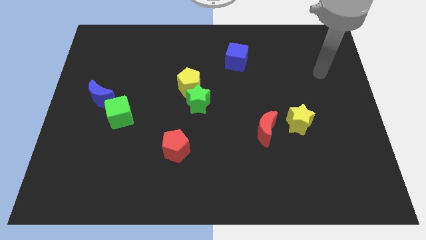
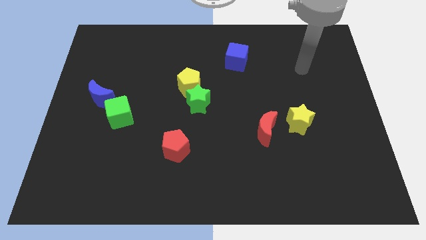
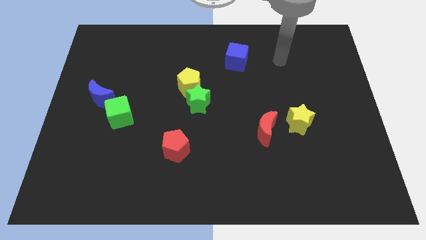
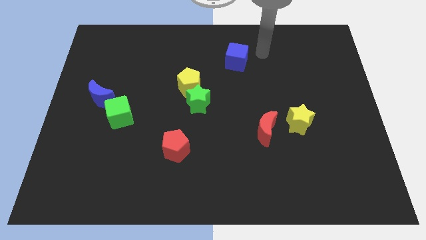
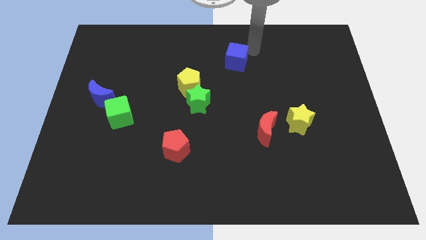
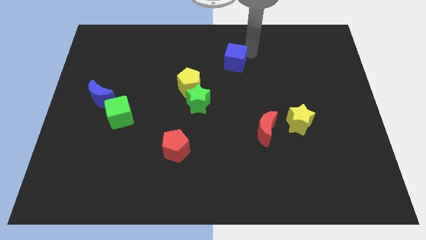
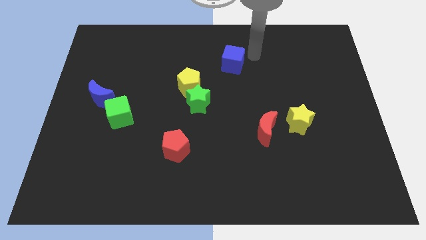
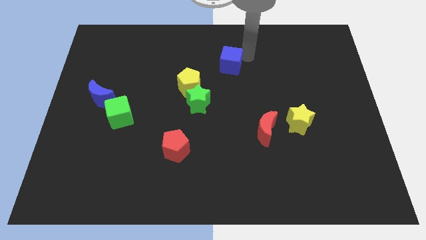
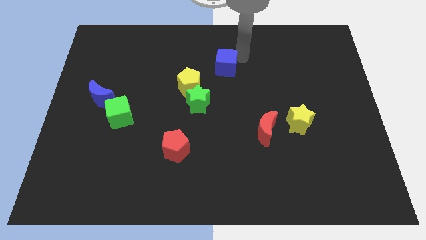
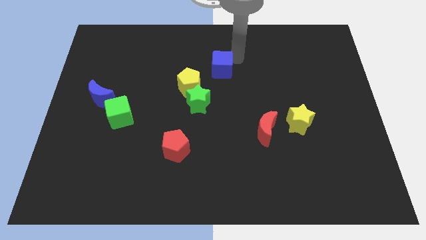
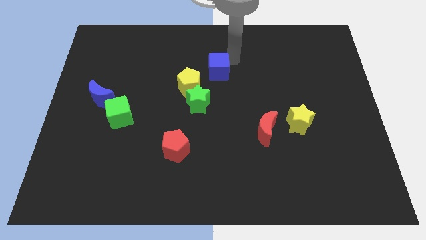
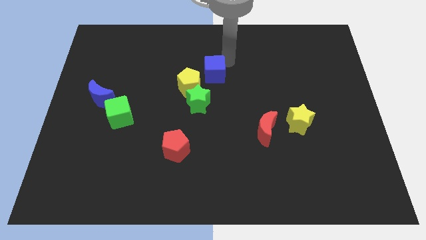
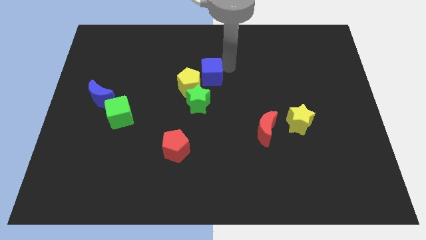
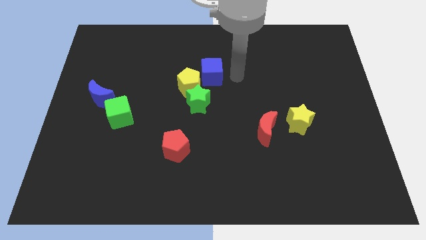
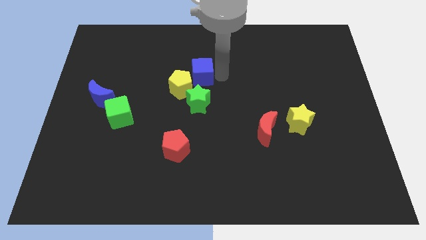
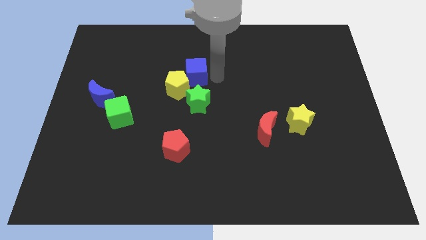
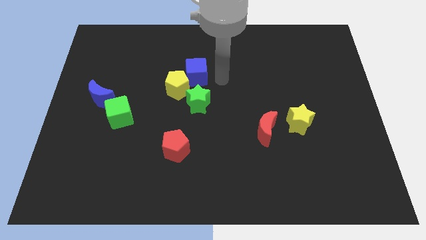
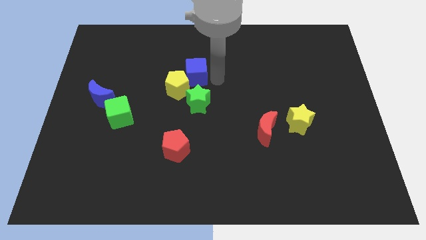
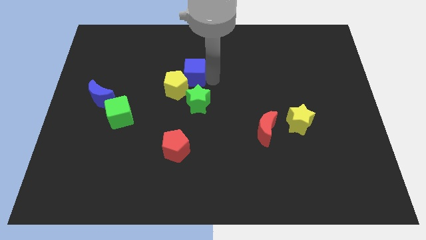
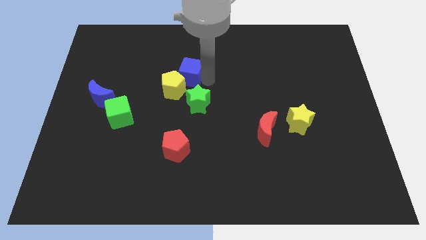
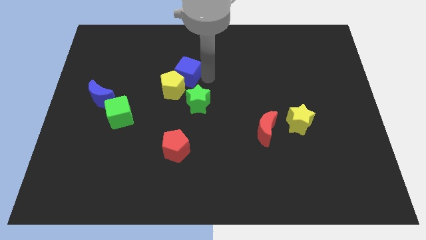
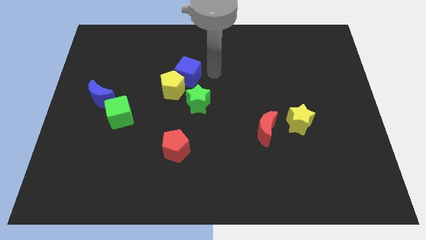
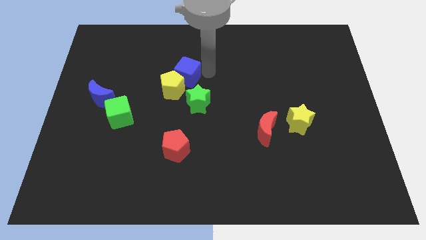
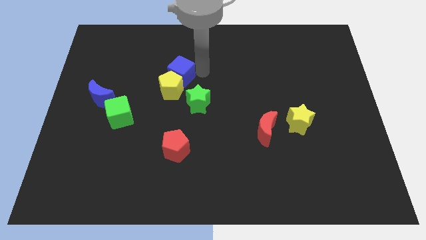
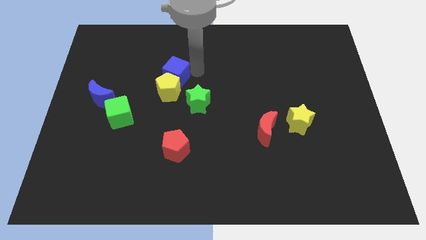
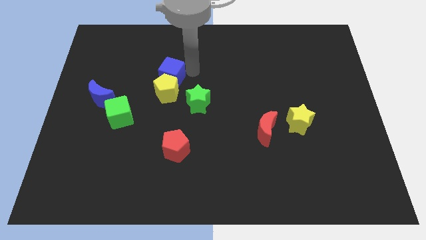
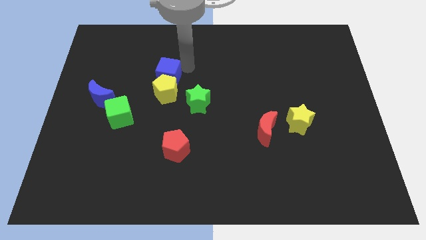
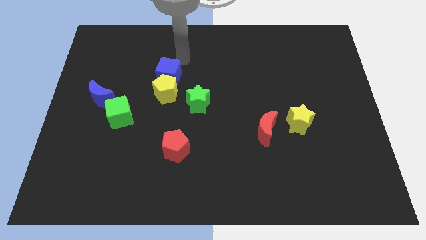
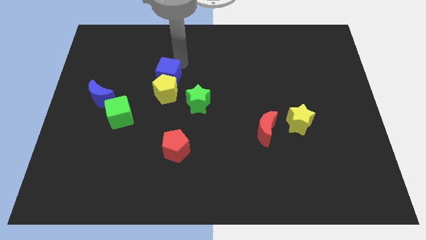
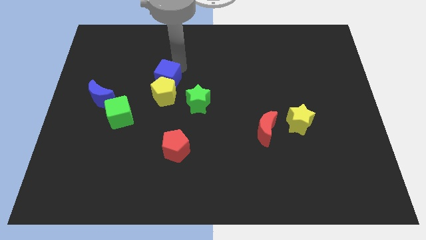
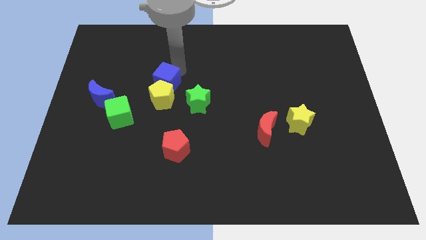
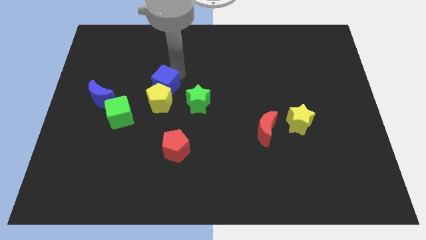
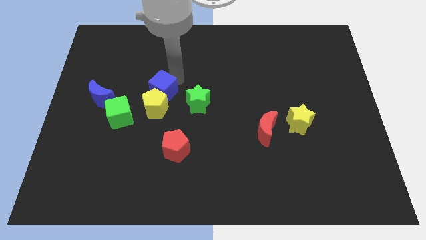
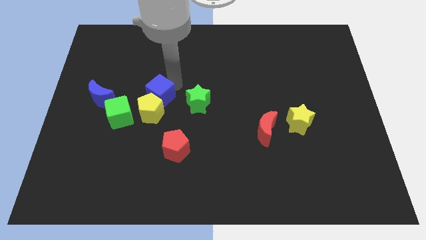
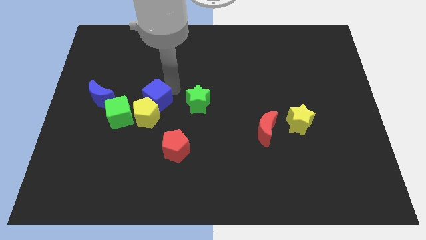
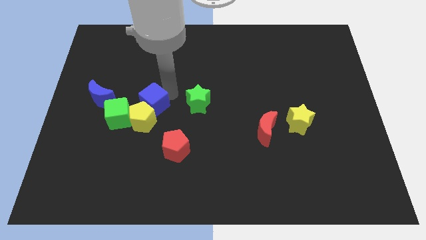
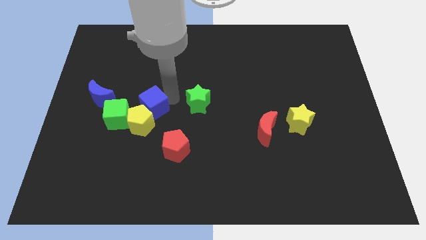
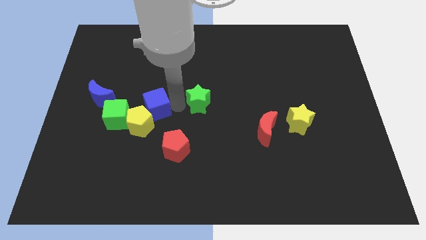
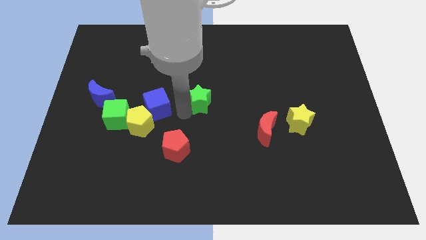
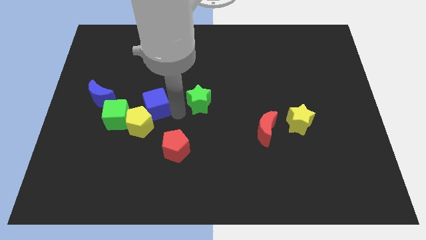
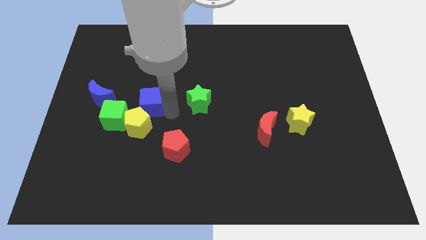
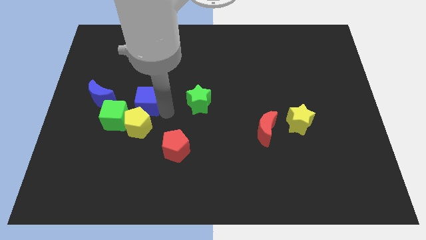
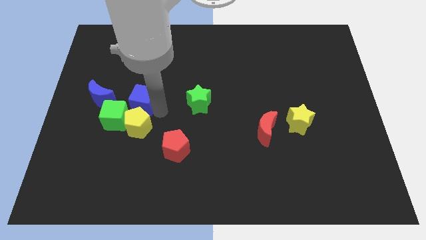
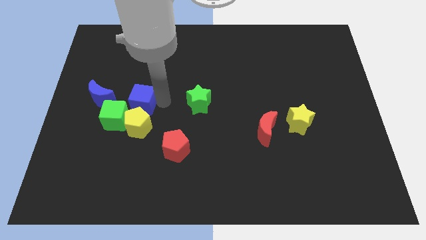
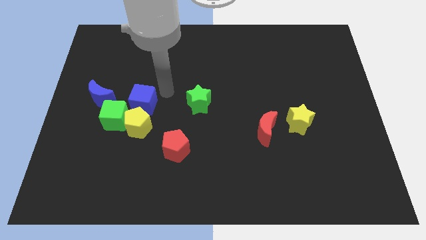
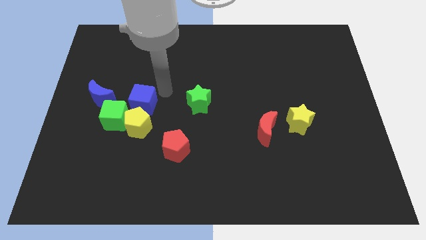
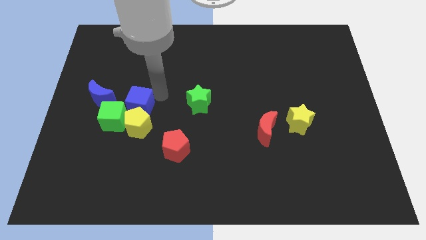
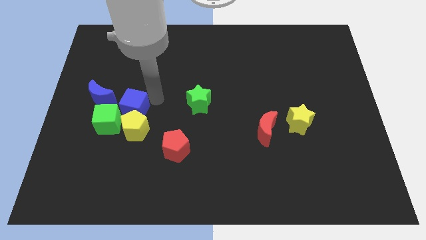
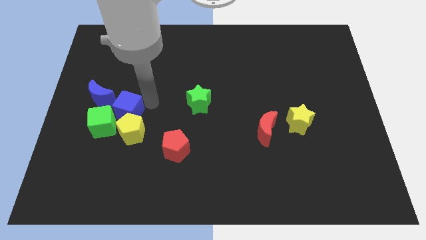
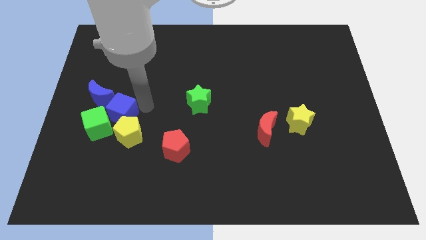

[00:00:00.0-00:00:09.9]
move the blue cube next to the green cube

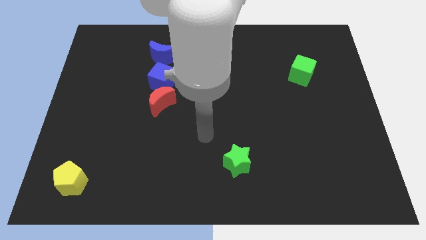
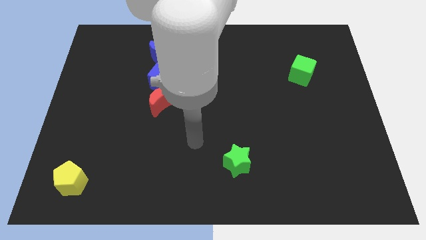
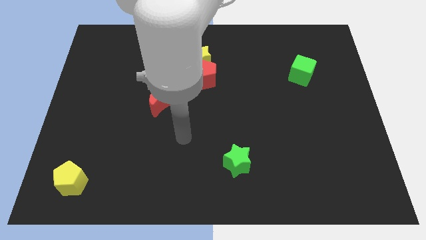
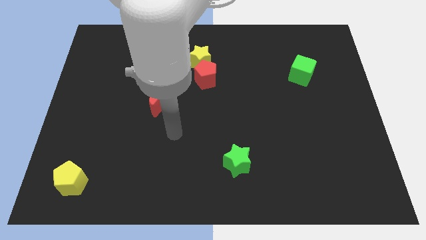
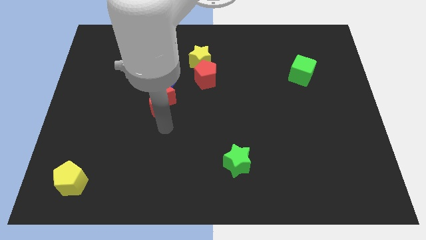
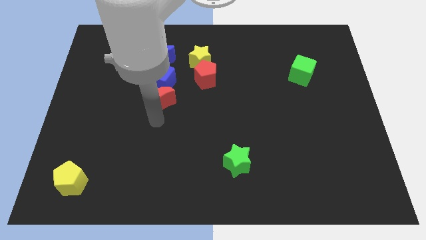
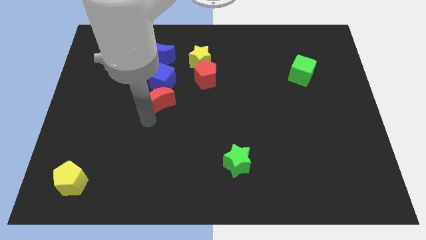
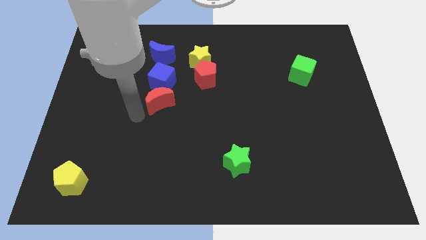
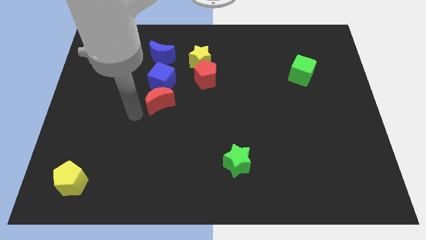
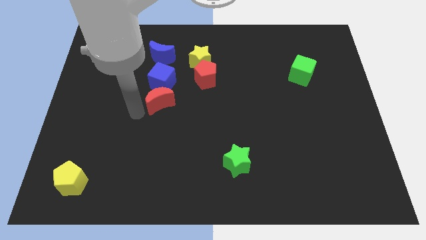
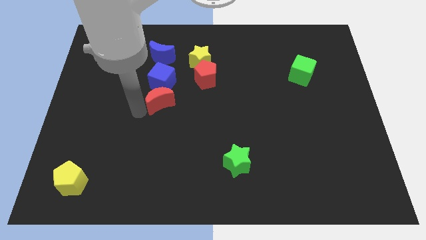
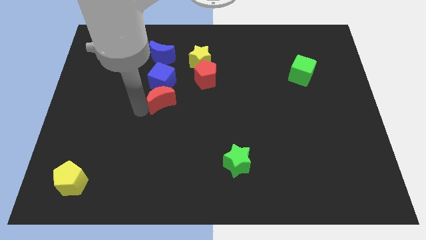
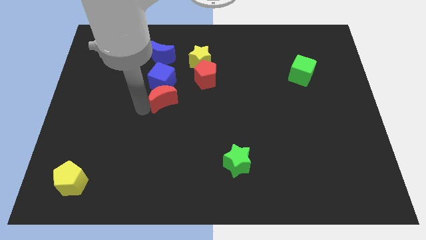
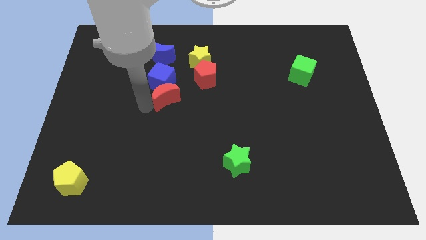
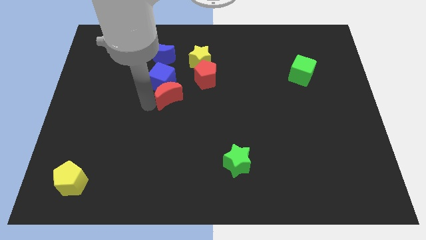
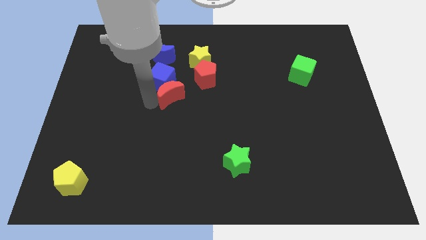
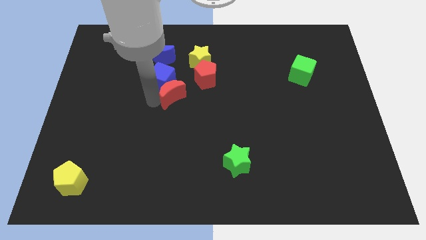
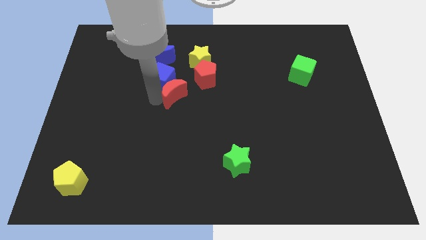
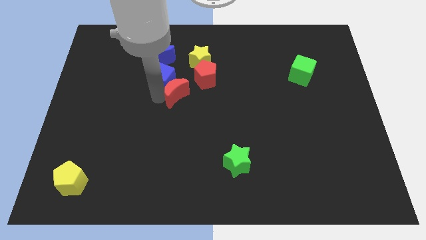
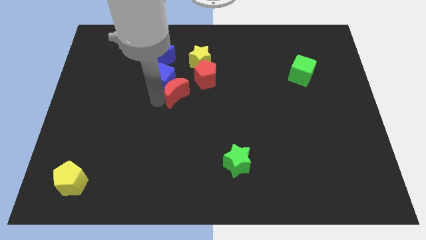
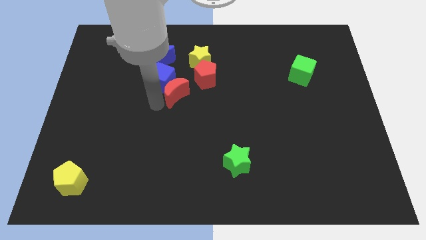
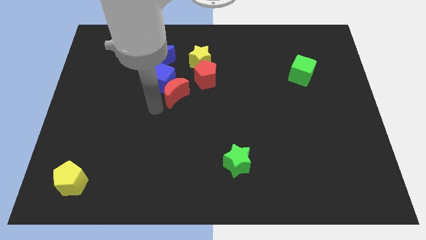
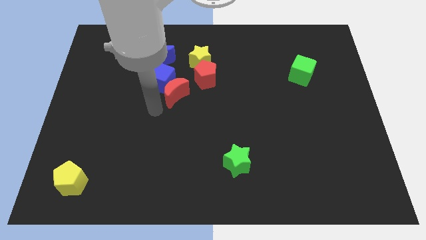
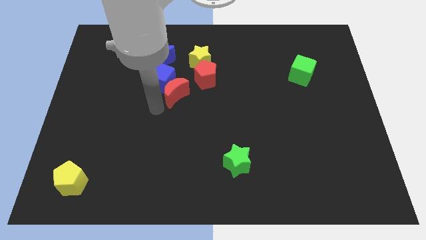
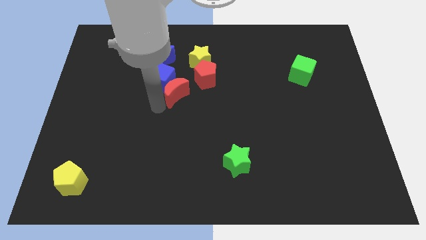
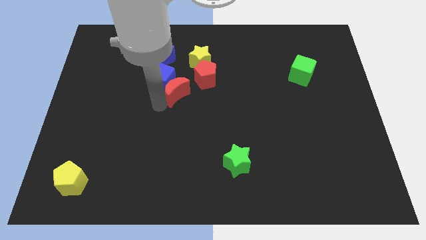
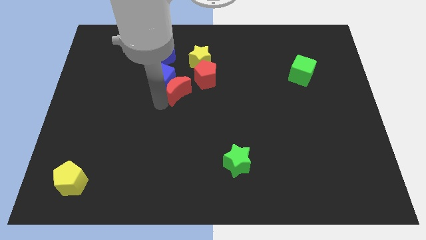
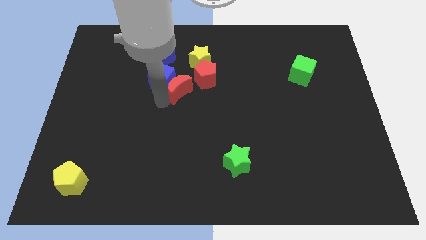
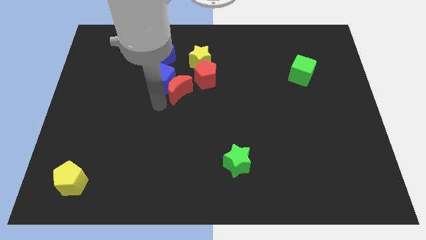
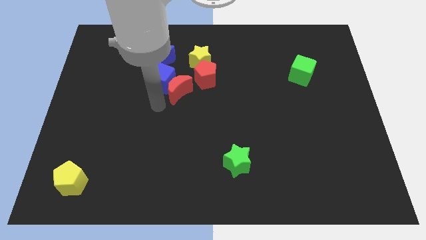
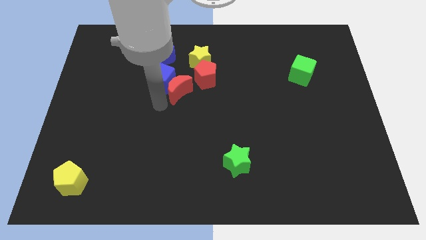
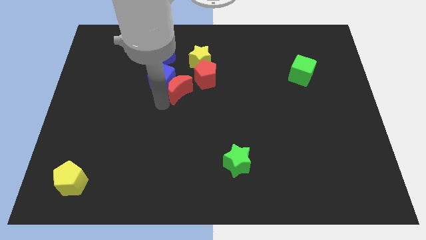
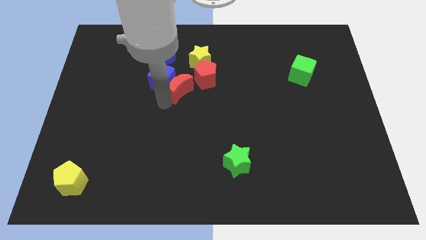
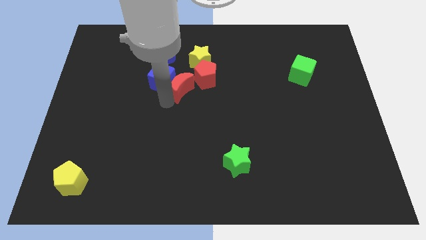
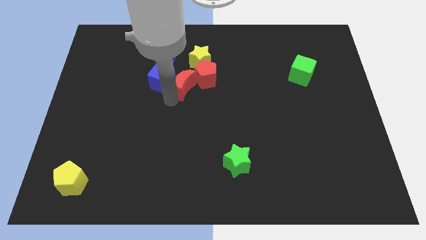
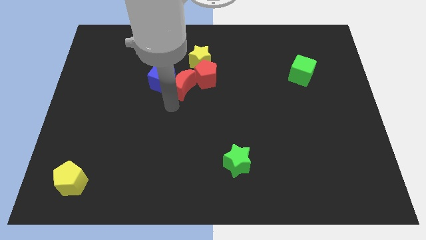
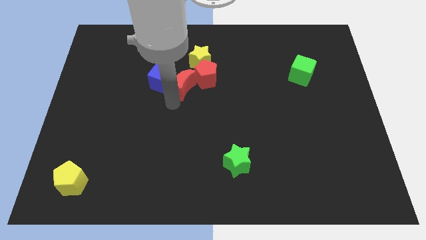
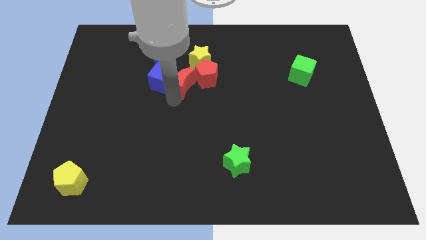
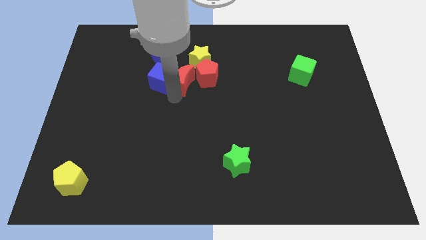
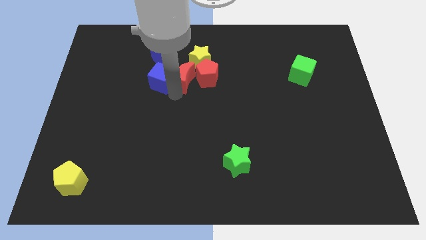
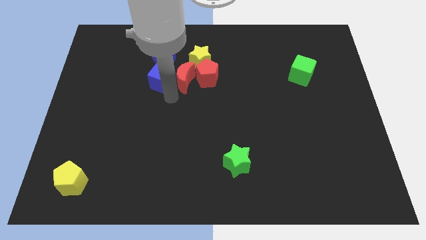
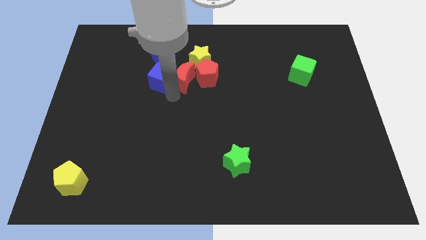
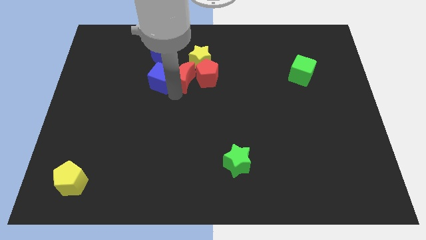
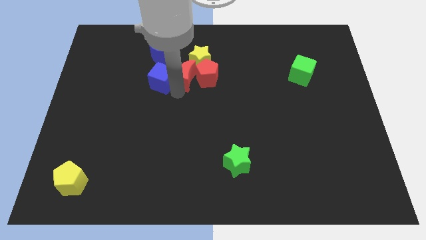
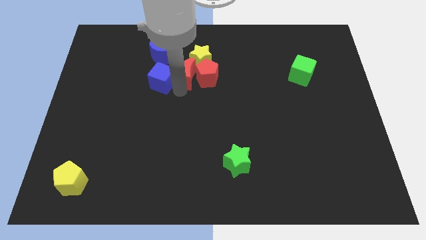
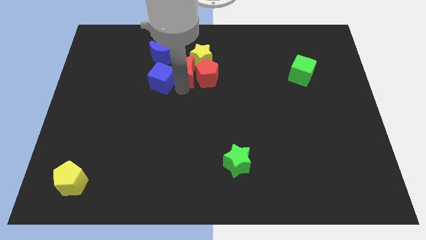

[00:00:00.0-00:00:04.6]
slide the red moon close to the yellow star
